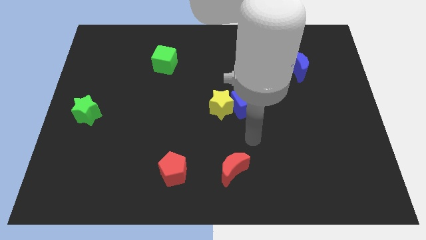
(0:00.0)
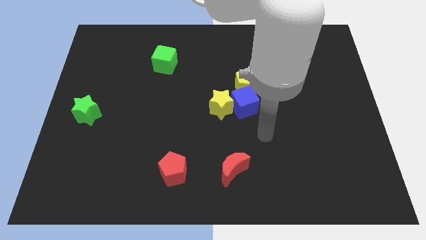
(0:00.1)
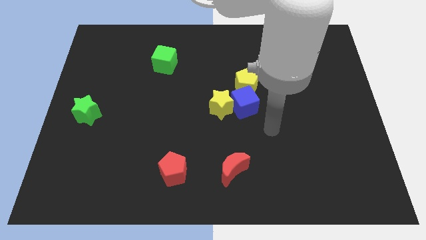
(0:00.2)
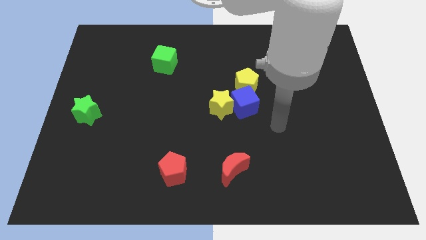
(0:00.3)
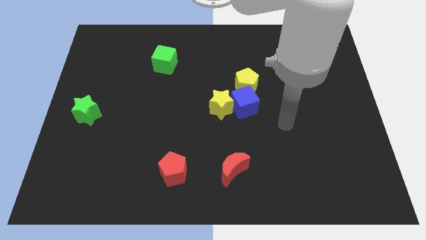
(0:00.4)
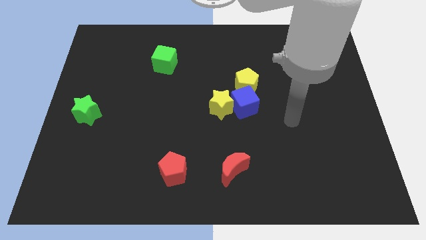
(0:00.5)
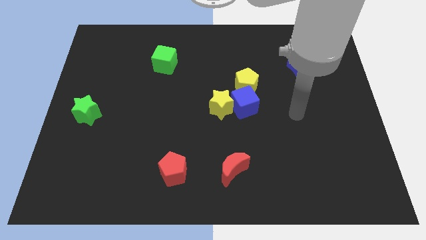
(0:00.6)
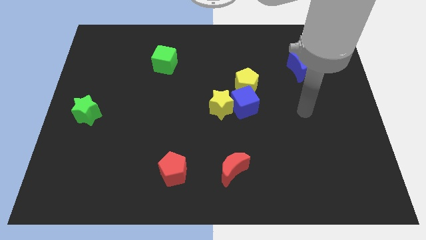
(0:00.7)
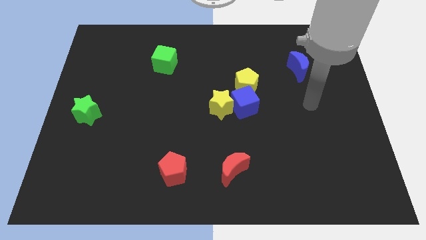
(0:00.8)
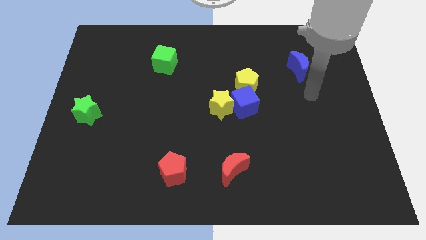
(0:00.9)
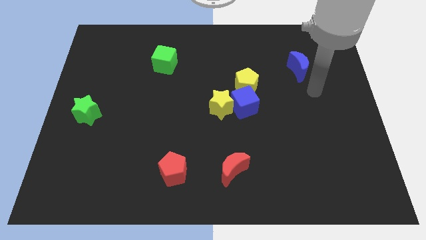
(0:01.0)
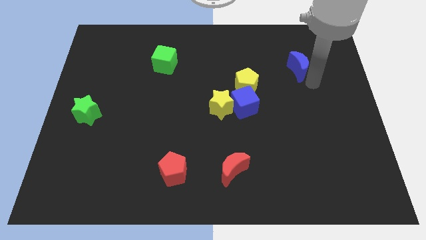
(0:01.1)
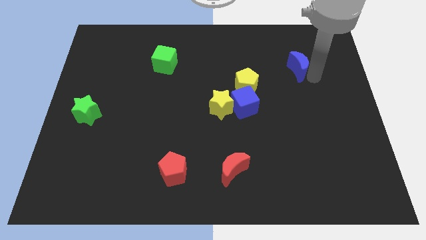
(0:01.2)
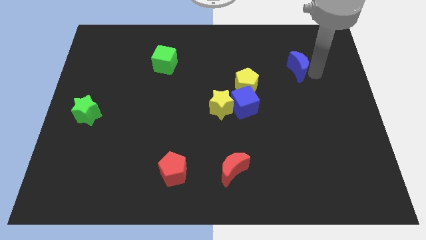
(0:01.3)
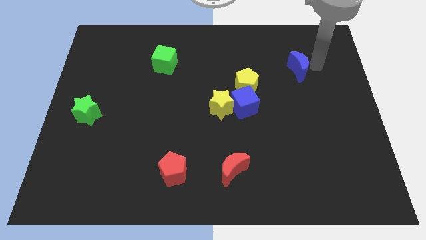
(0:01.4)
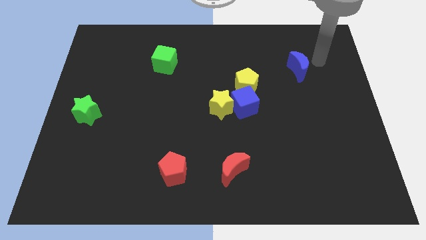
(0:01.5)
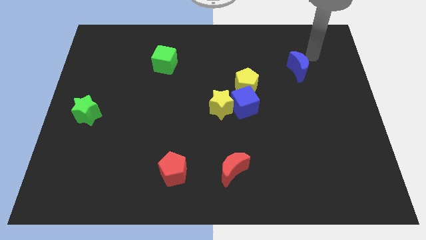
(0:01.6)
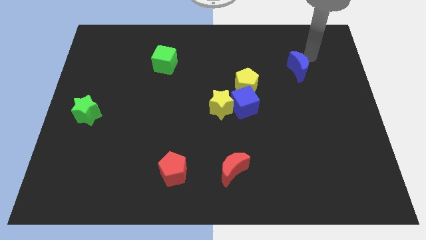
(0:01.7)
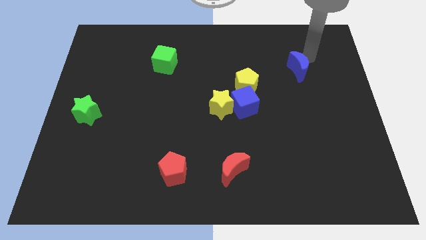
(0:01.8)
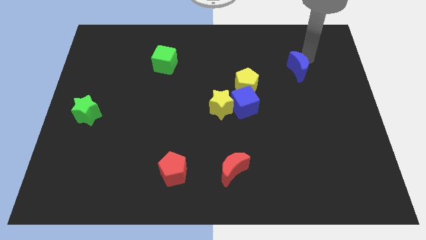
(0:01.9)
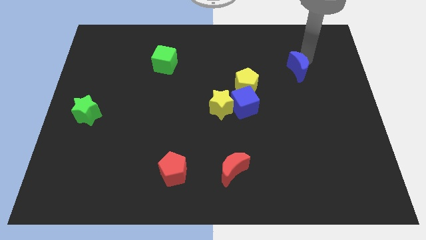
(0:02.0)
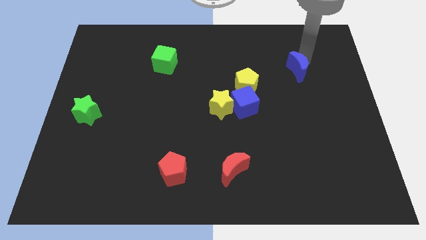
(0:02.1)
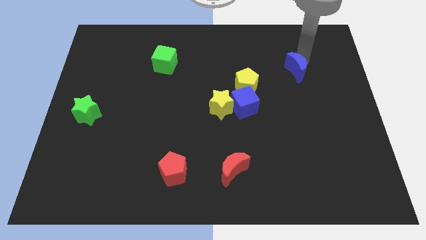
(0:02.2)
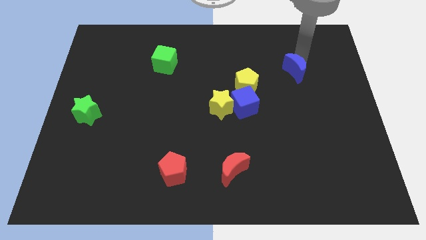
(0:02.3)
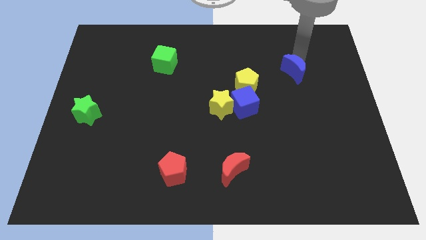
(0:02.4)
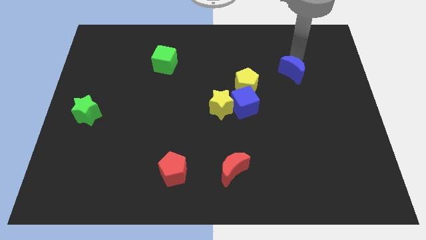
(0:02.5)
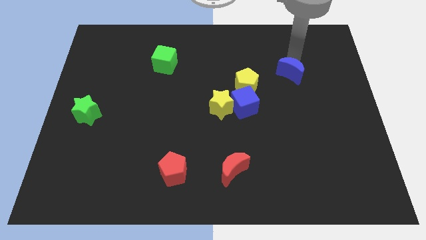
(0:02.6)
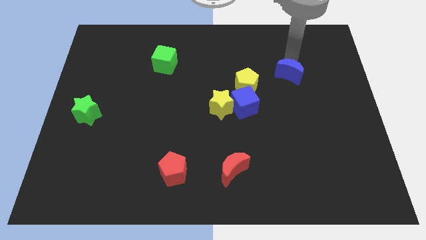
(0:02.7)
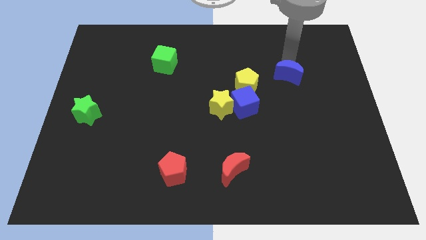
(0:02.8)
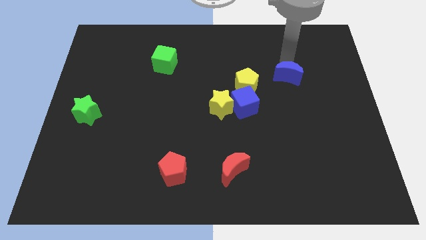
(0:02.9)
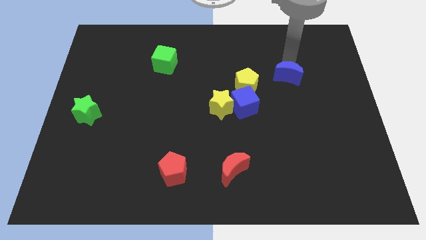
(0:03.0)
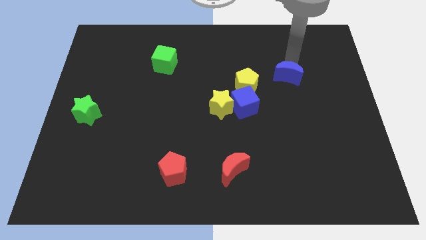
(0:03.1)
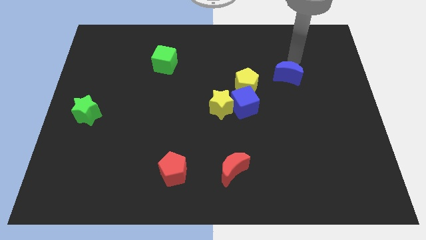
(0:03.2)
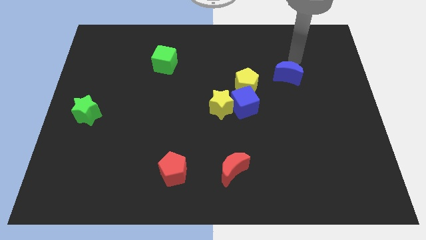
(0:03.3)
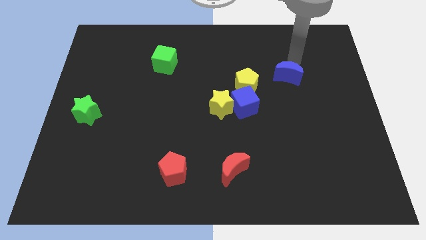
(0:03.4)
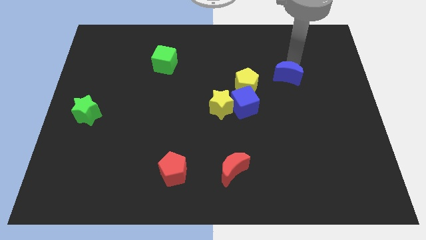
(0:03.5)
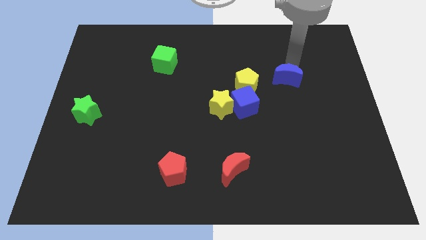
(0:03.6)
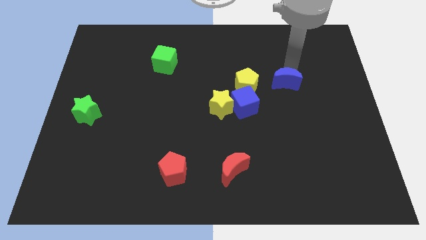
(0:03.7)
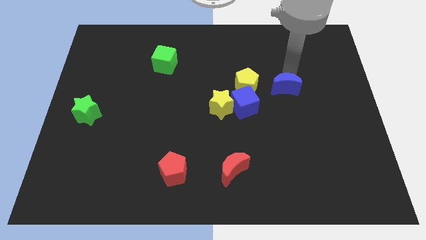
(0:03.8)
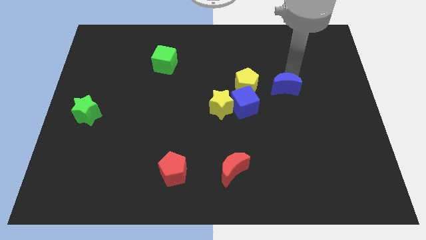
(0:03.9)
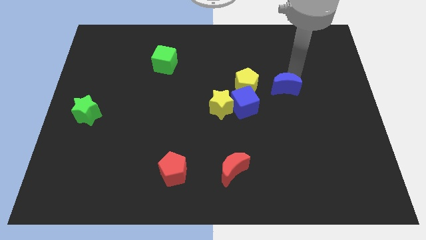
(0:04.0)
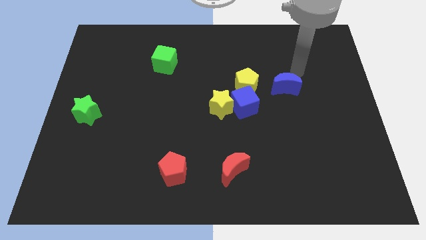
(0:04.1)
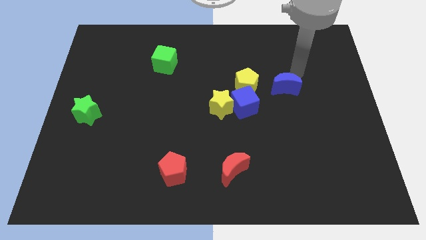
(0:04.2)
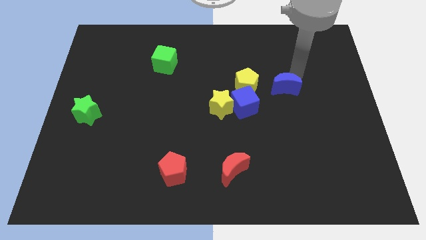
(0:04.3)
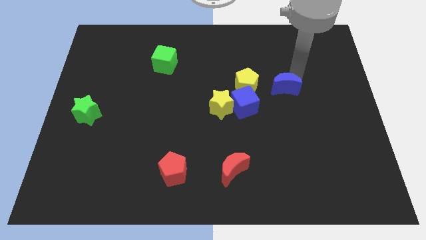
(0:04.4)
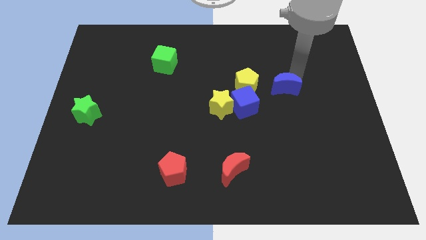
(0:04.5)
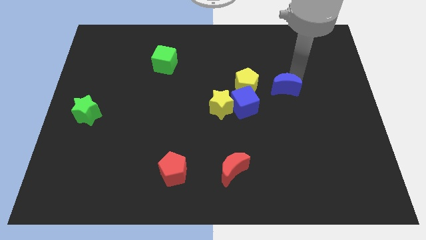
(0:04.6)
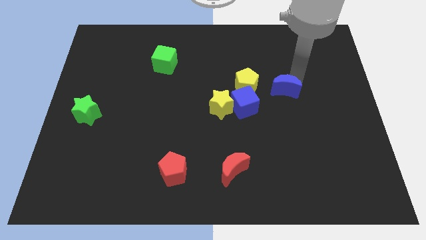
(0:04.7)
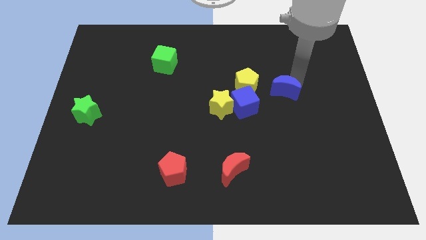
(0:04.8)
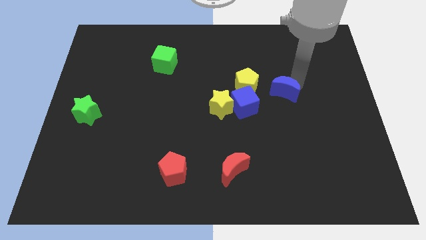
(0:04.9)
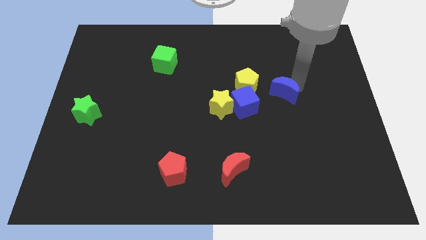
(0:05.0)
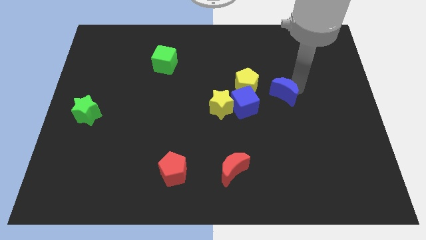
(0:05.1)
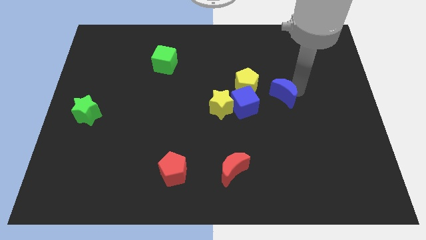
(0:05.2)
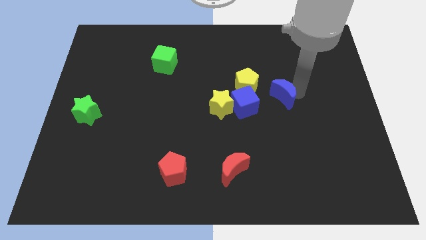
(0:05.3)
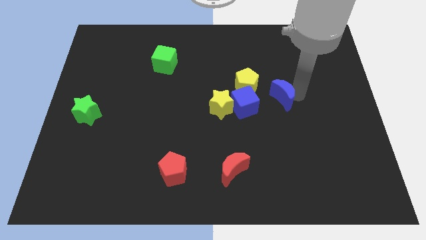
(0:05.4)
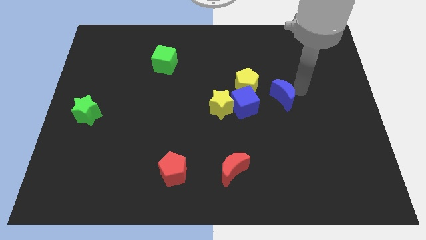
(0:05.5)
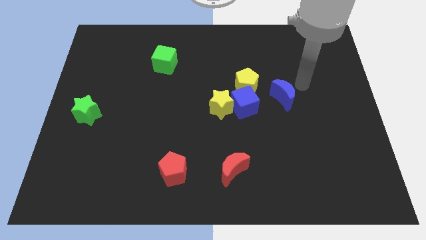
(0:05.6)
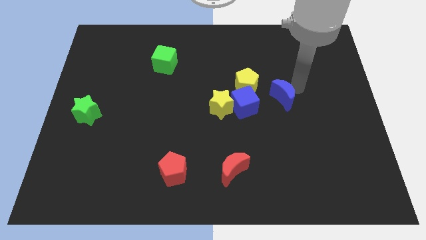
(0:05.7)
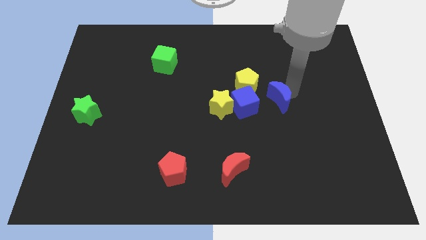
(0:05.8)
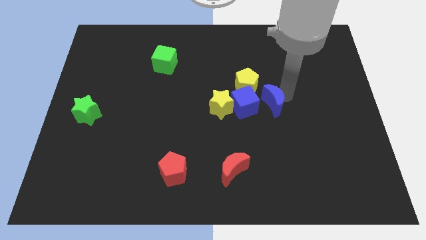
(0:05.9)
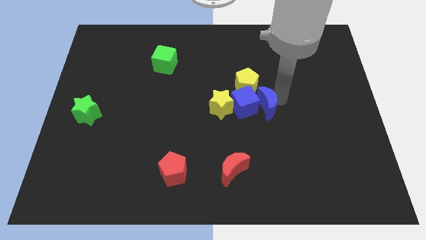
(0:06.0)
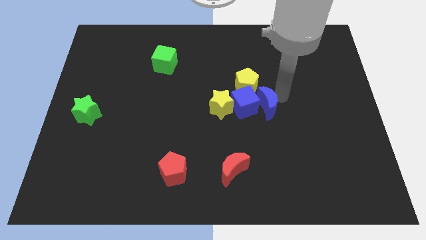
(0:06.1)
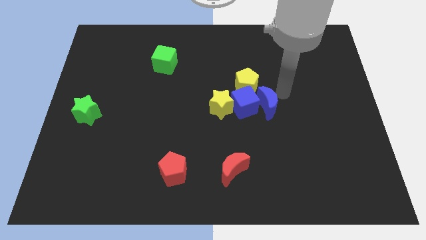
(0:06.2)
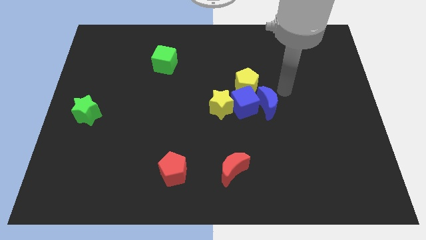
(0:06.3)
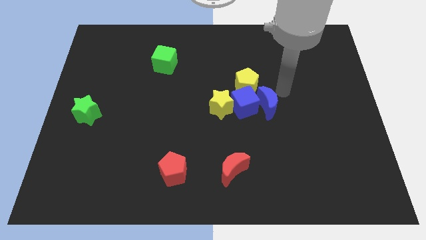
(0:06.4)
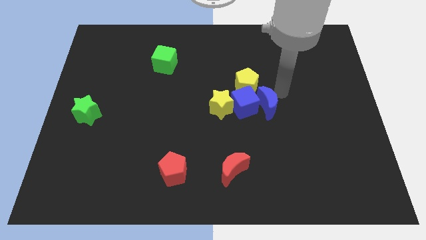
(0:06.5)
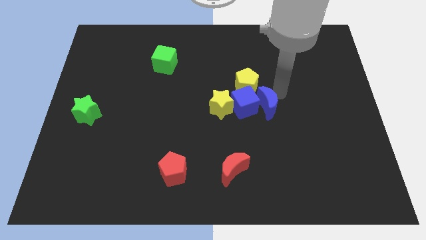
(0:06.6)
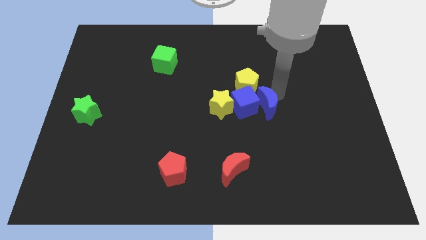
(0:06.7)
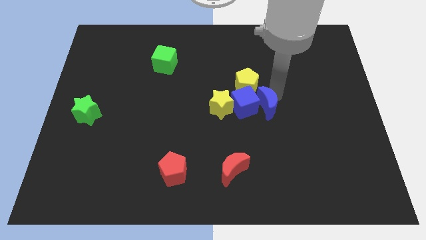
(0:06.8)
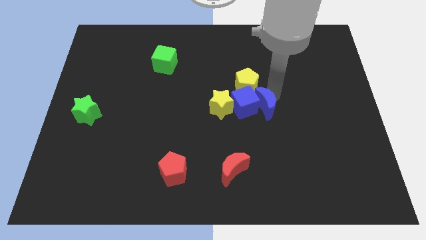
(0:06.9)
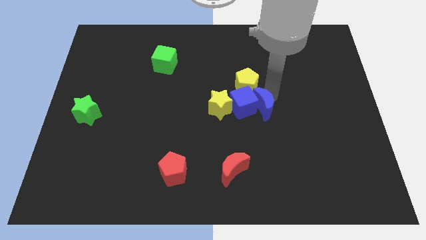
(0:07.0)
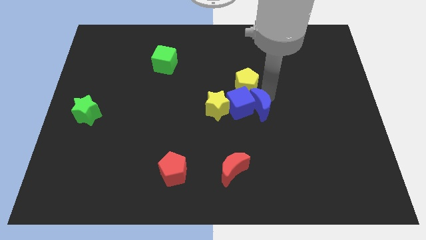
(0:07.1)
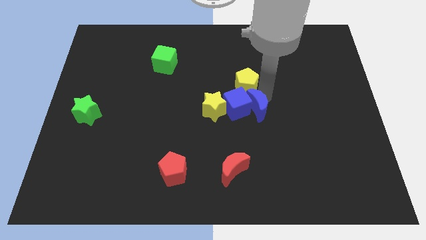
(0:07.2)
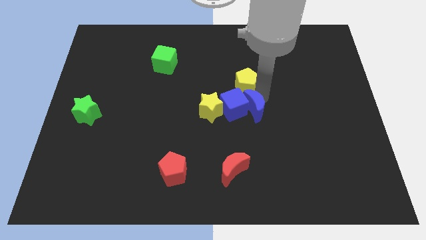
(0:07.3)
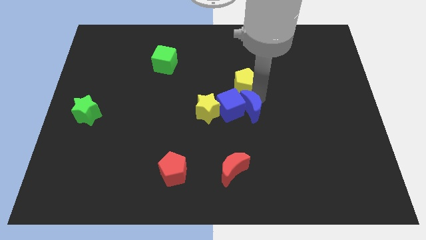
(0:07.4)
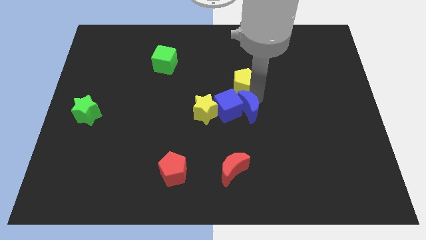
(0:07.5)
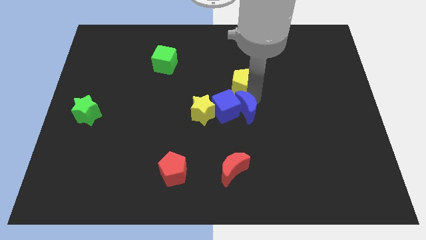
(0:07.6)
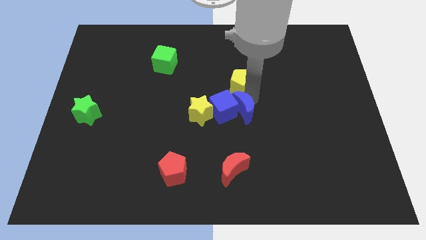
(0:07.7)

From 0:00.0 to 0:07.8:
push the blue moon downwards and then to the left

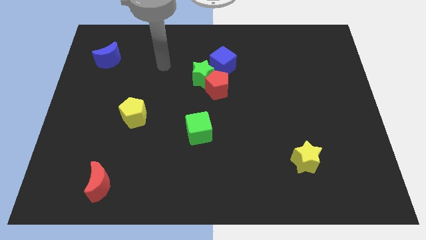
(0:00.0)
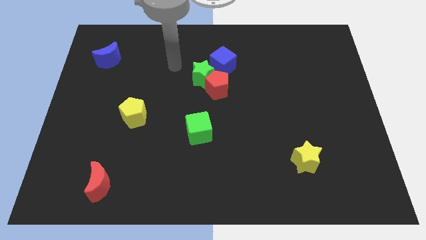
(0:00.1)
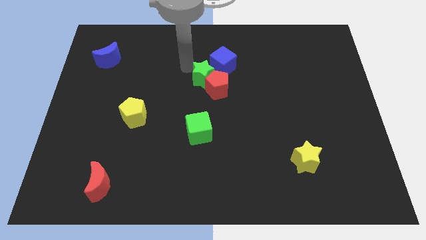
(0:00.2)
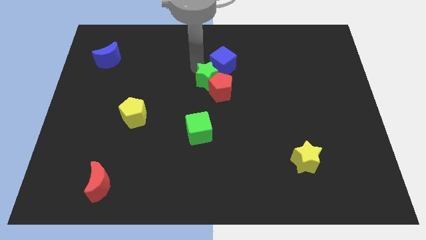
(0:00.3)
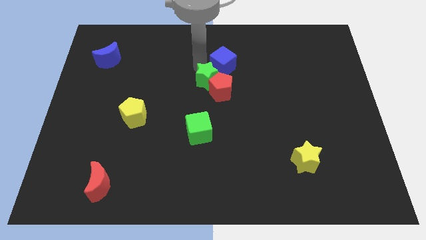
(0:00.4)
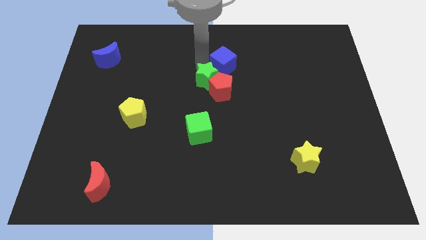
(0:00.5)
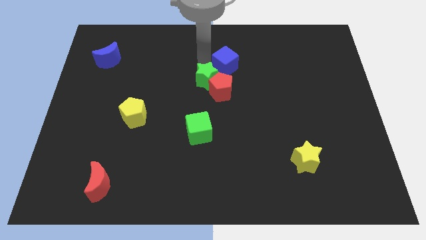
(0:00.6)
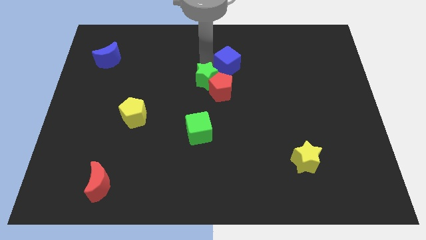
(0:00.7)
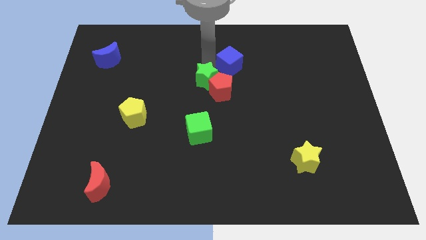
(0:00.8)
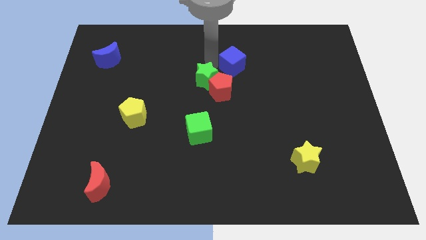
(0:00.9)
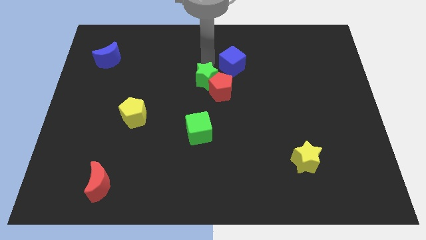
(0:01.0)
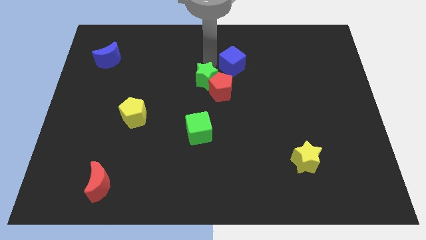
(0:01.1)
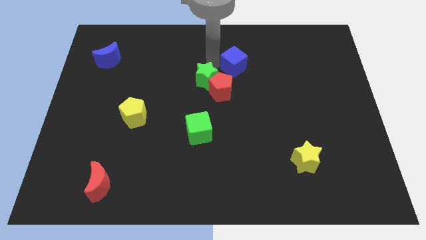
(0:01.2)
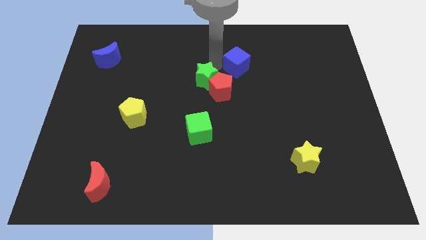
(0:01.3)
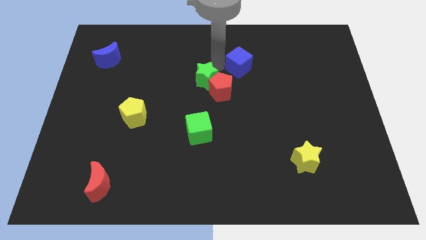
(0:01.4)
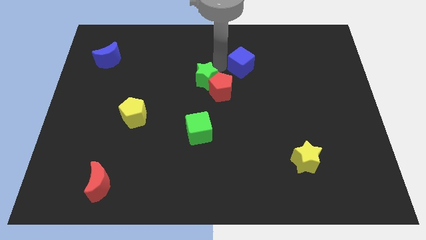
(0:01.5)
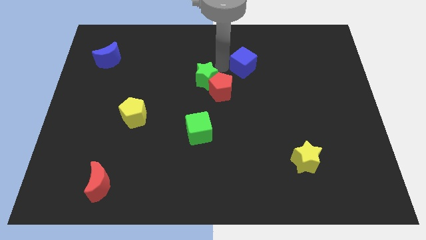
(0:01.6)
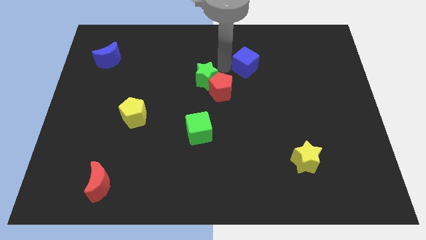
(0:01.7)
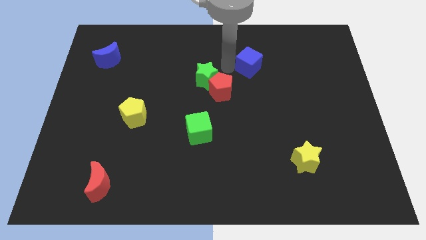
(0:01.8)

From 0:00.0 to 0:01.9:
slide the blue cube right a bit
